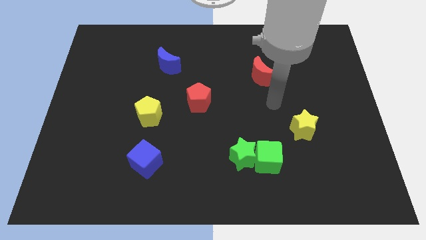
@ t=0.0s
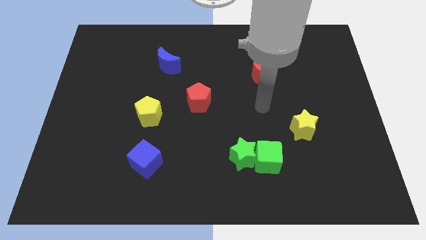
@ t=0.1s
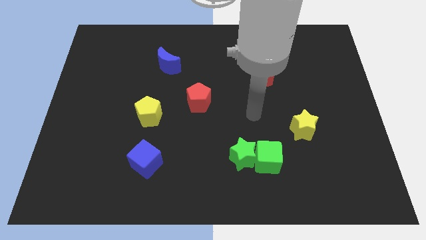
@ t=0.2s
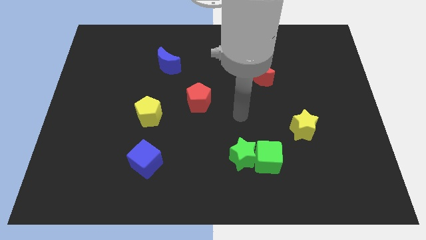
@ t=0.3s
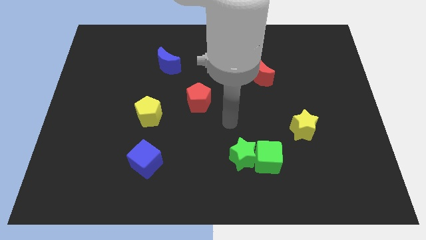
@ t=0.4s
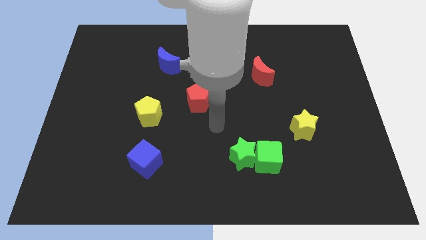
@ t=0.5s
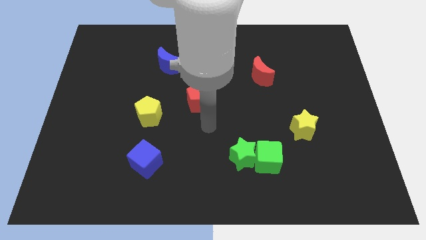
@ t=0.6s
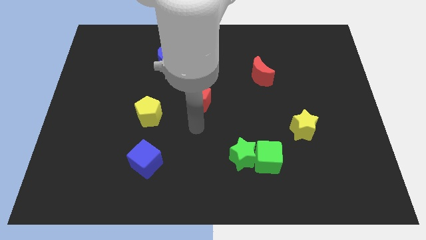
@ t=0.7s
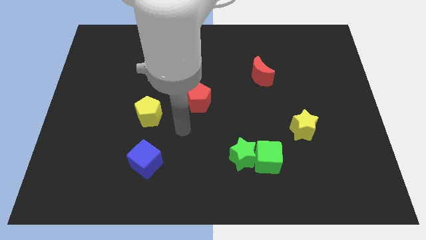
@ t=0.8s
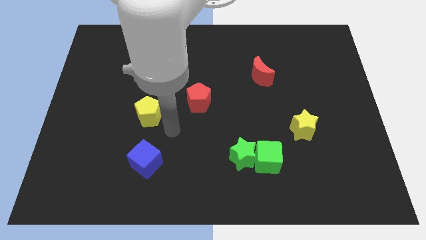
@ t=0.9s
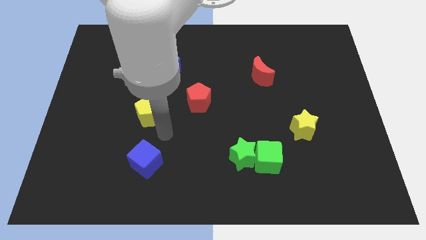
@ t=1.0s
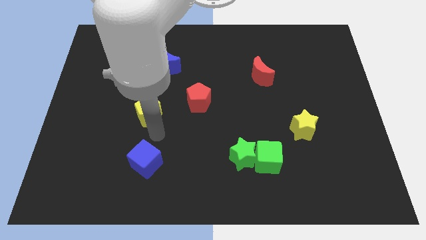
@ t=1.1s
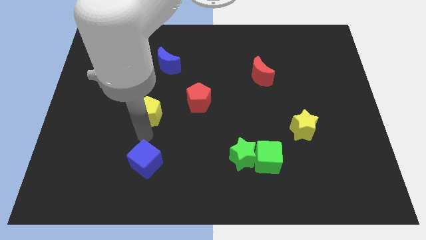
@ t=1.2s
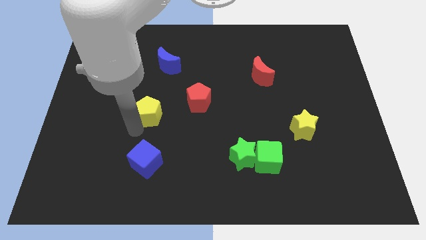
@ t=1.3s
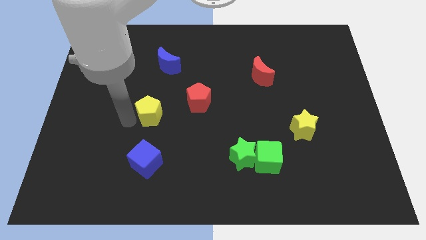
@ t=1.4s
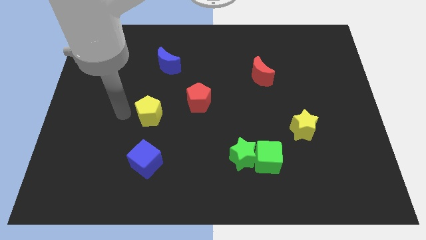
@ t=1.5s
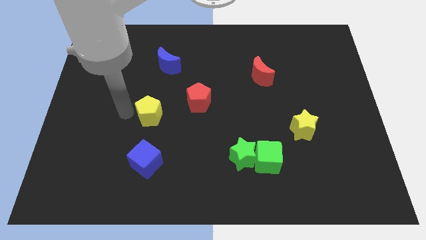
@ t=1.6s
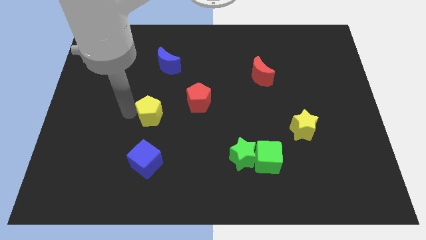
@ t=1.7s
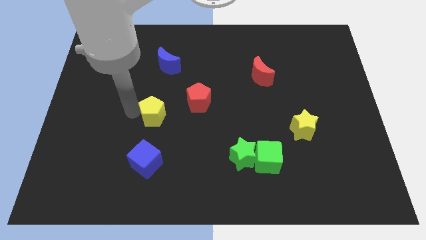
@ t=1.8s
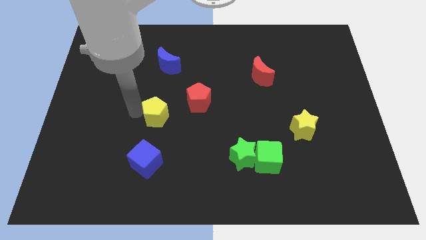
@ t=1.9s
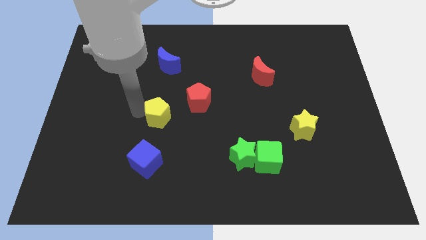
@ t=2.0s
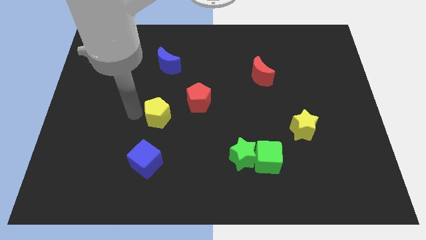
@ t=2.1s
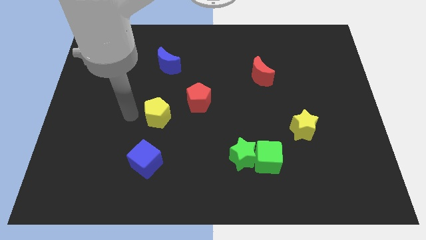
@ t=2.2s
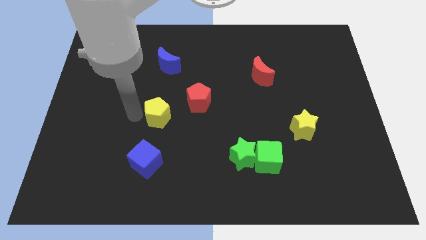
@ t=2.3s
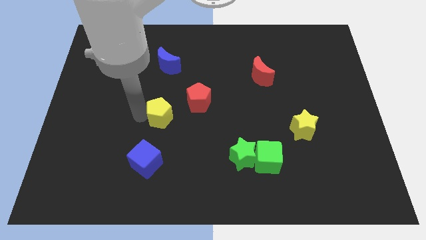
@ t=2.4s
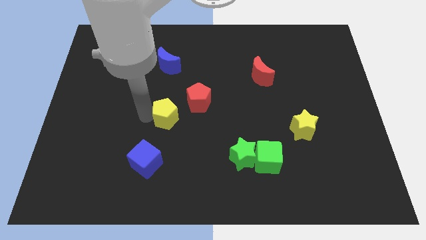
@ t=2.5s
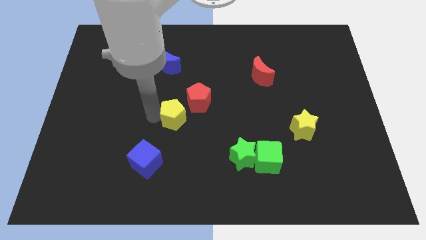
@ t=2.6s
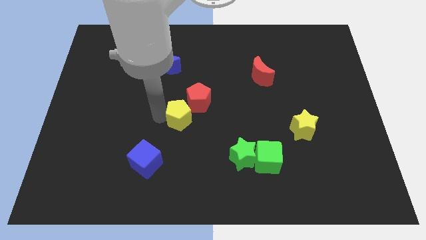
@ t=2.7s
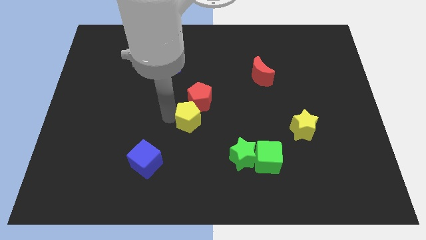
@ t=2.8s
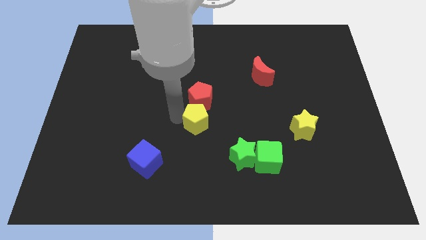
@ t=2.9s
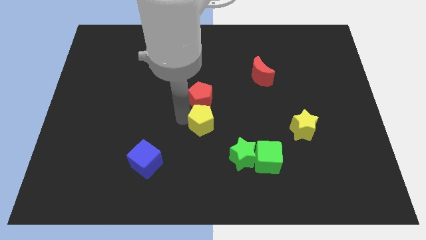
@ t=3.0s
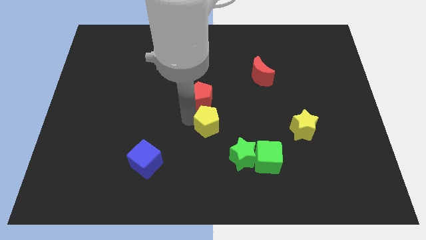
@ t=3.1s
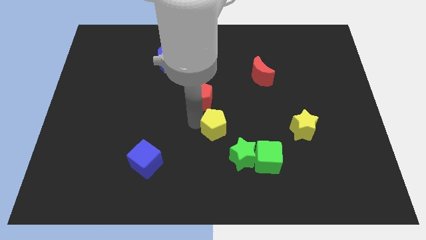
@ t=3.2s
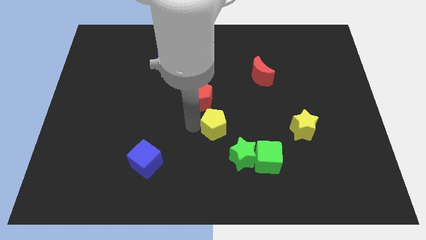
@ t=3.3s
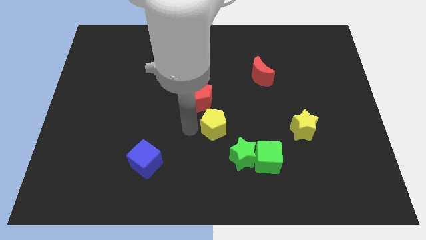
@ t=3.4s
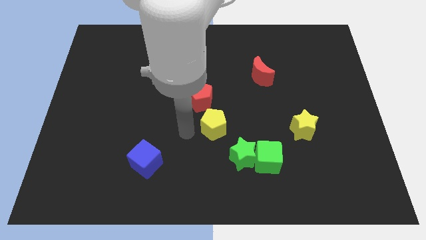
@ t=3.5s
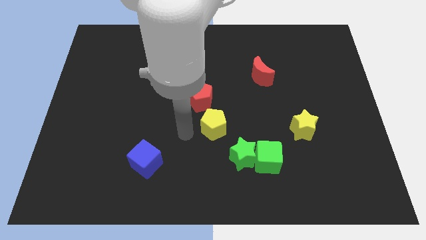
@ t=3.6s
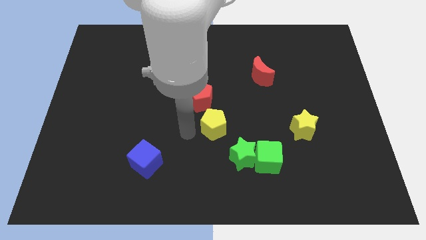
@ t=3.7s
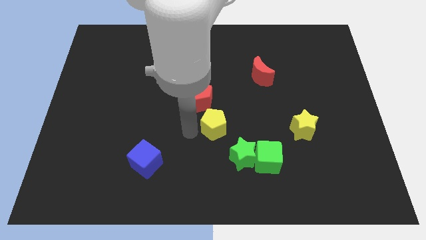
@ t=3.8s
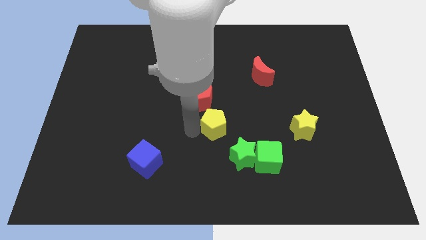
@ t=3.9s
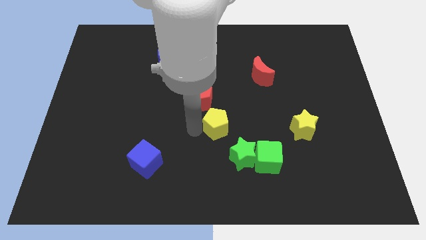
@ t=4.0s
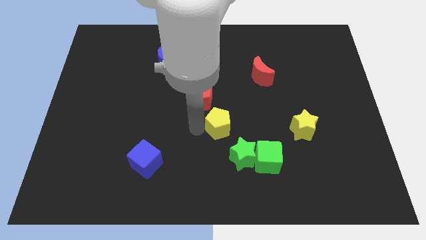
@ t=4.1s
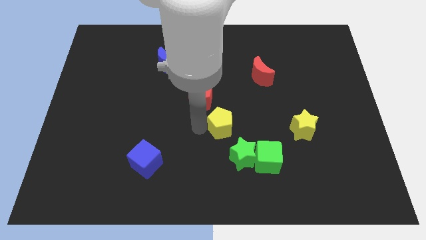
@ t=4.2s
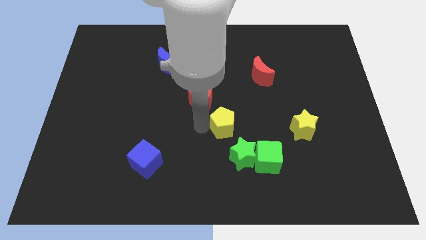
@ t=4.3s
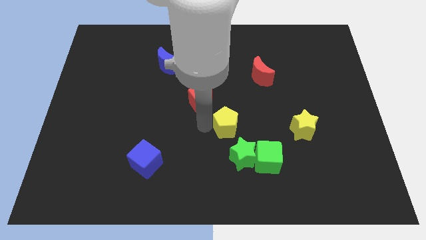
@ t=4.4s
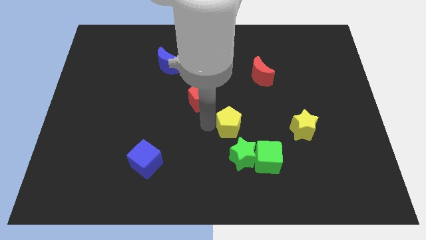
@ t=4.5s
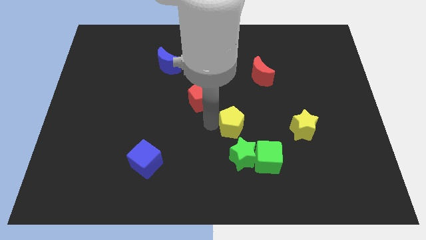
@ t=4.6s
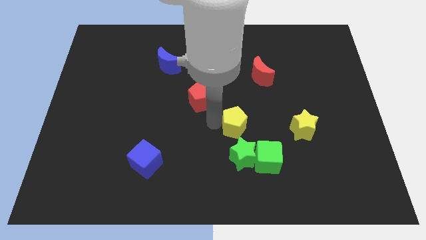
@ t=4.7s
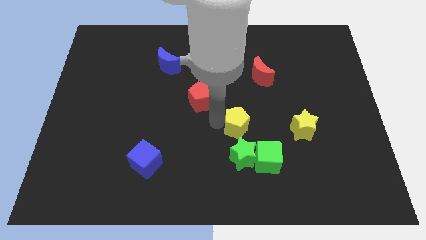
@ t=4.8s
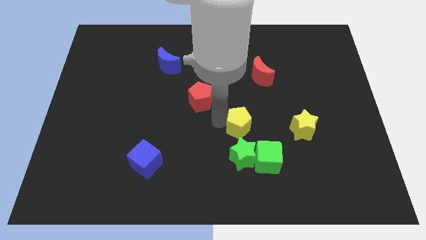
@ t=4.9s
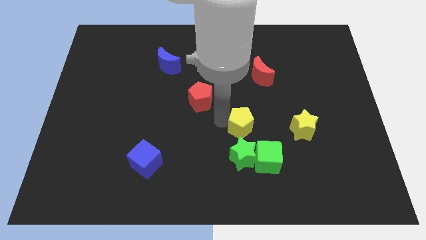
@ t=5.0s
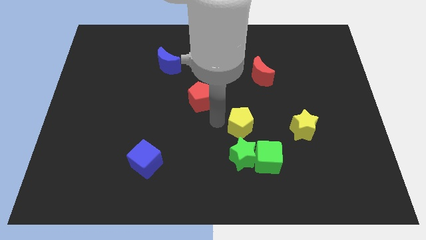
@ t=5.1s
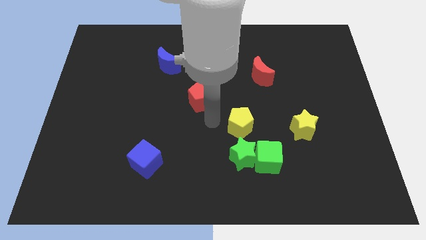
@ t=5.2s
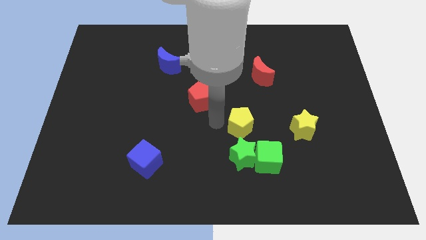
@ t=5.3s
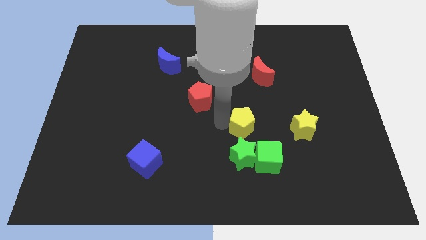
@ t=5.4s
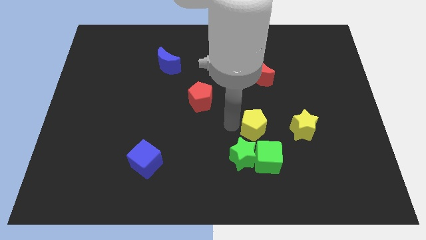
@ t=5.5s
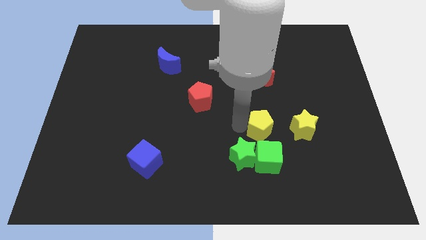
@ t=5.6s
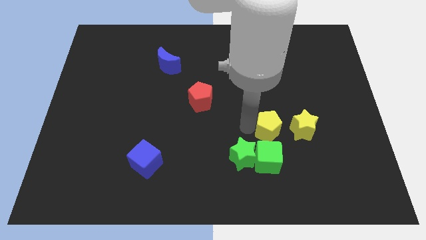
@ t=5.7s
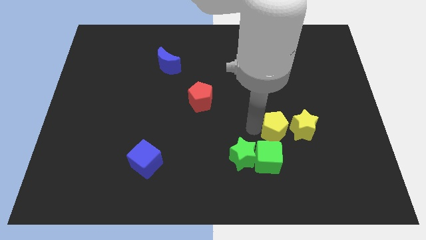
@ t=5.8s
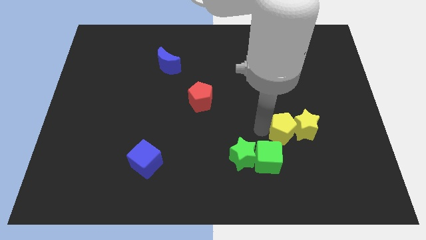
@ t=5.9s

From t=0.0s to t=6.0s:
slide the yellow pentagon next to the yellow star

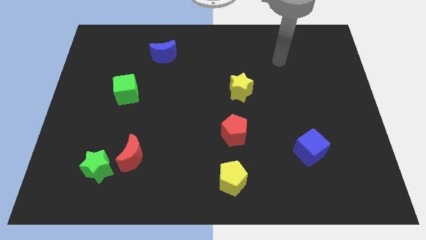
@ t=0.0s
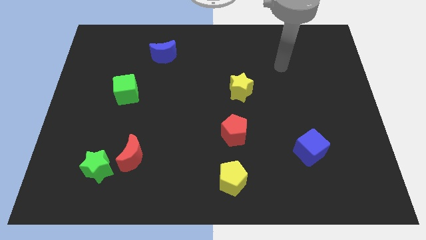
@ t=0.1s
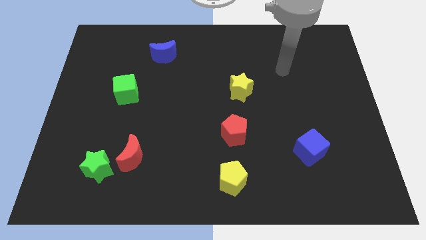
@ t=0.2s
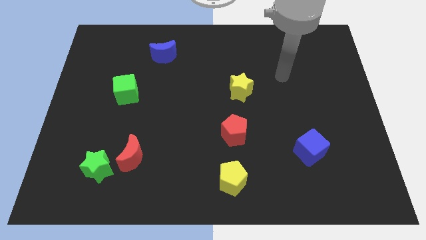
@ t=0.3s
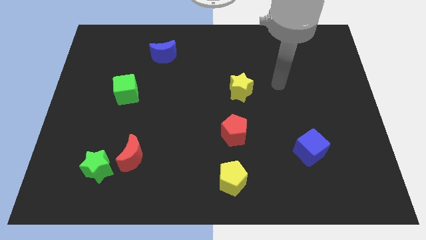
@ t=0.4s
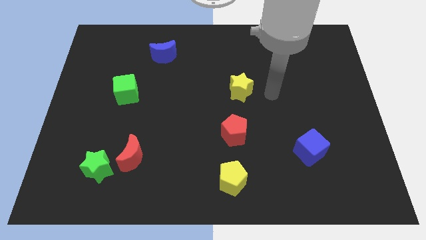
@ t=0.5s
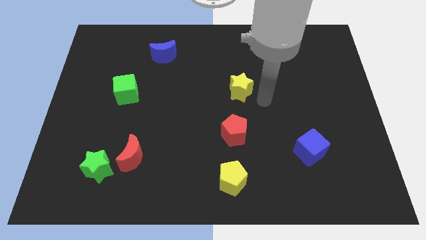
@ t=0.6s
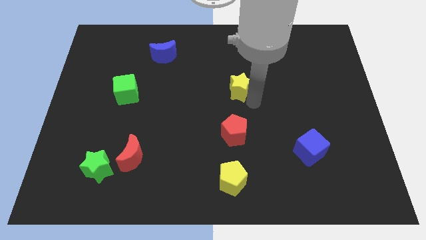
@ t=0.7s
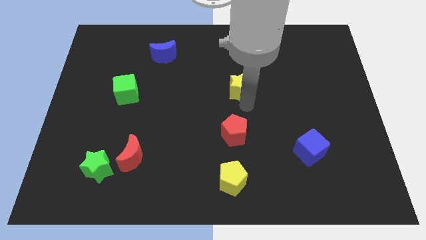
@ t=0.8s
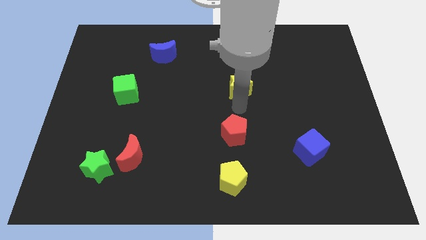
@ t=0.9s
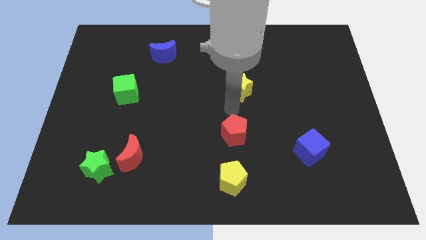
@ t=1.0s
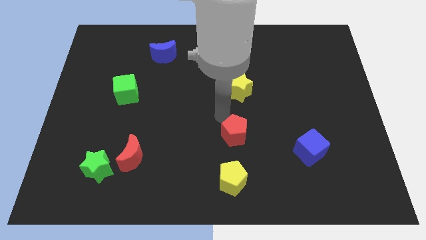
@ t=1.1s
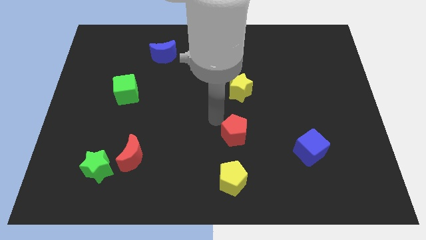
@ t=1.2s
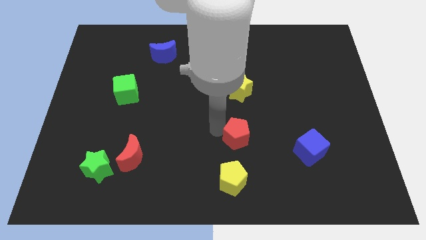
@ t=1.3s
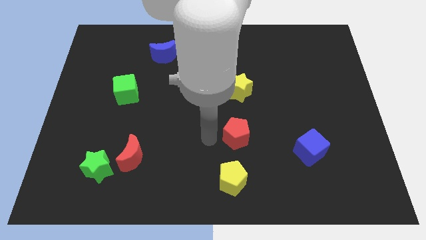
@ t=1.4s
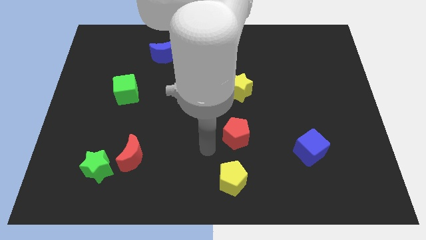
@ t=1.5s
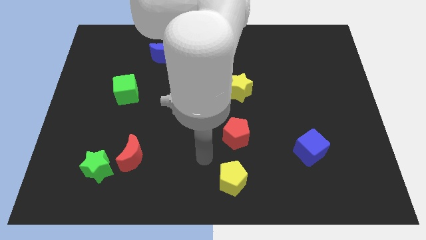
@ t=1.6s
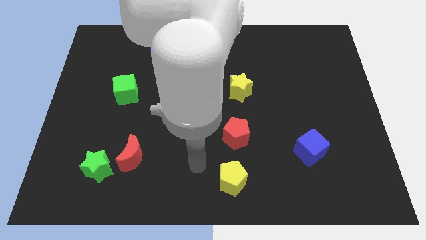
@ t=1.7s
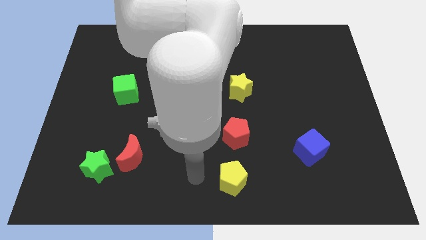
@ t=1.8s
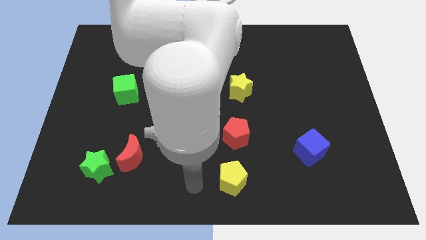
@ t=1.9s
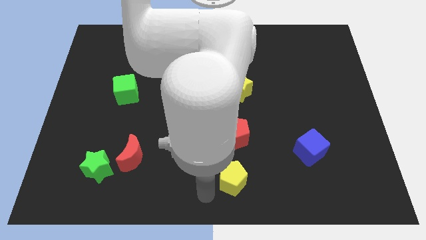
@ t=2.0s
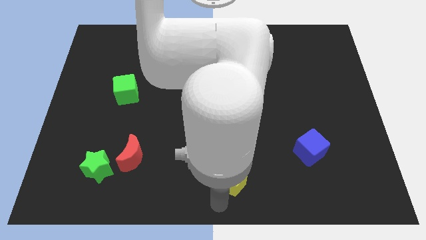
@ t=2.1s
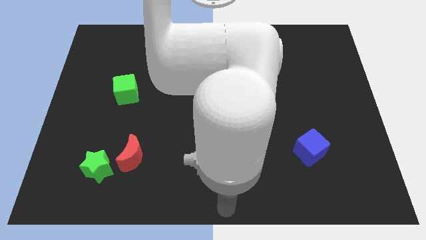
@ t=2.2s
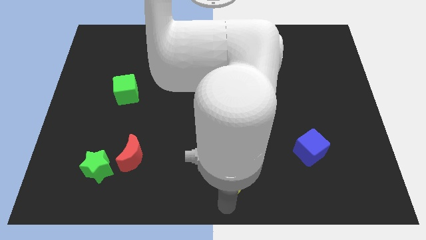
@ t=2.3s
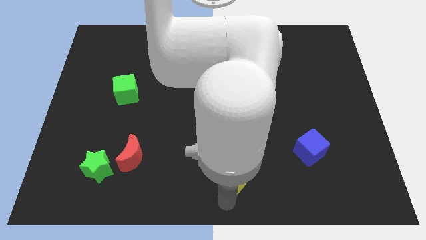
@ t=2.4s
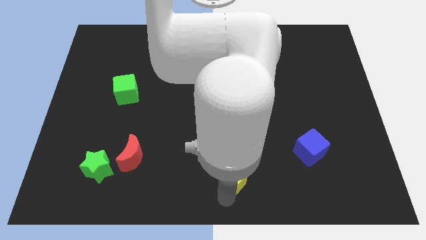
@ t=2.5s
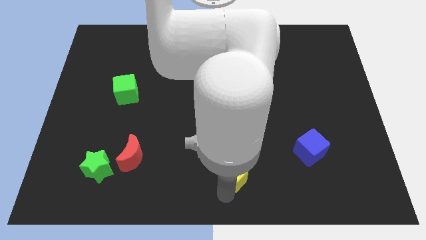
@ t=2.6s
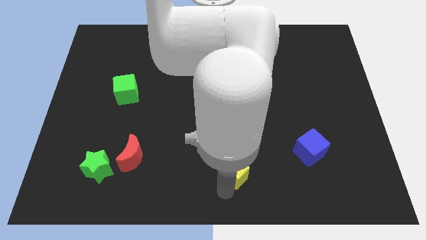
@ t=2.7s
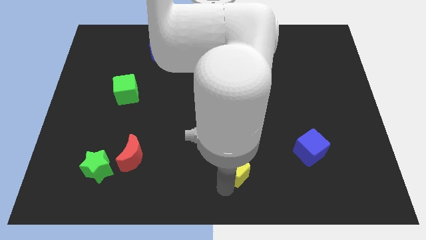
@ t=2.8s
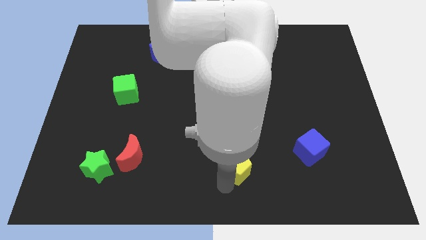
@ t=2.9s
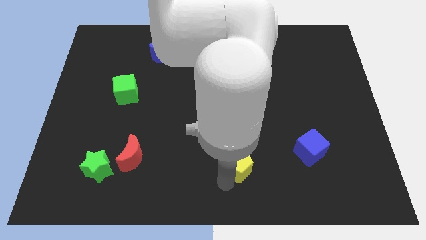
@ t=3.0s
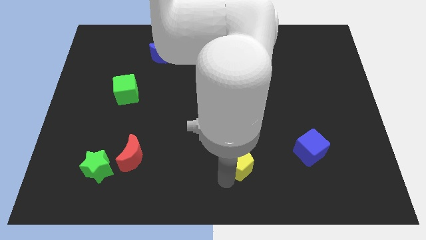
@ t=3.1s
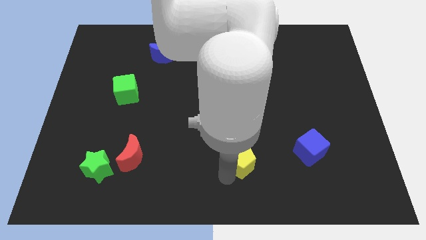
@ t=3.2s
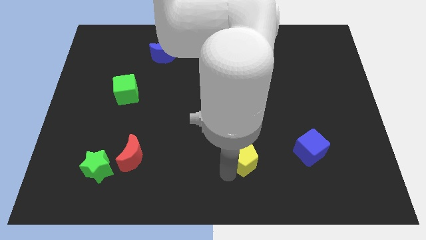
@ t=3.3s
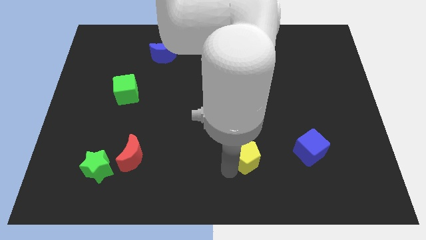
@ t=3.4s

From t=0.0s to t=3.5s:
move the yellow pentagon next to the red pentagon
